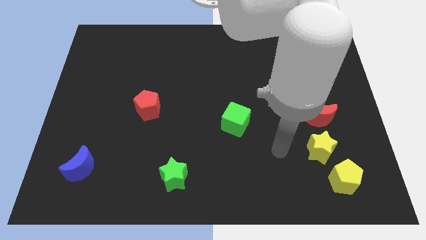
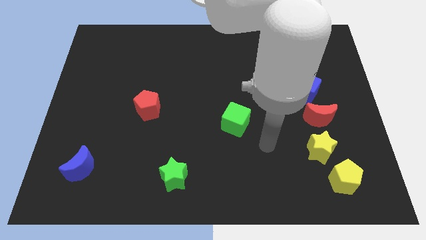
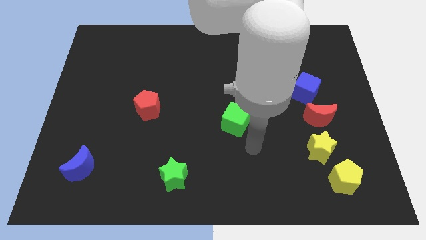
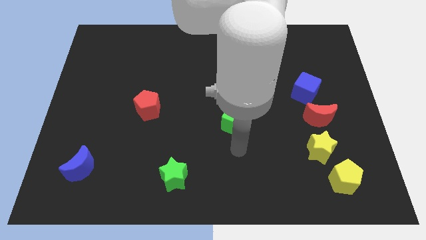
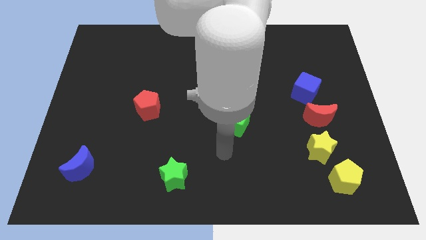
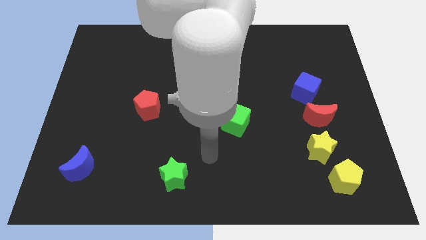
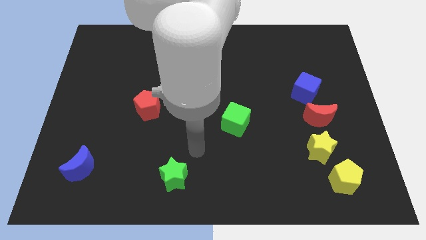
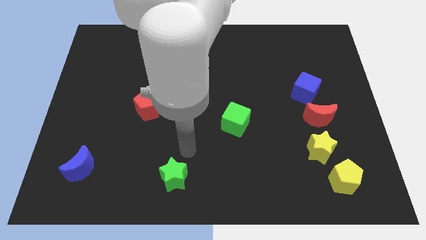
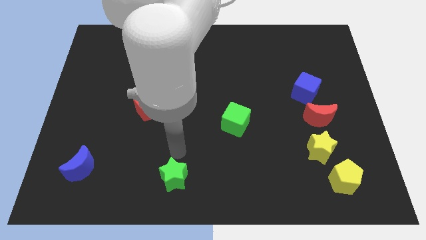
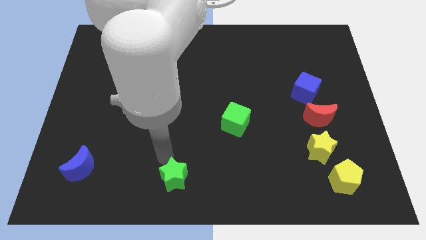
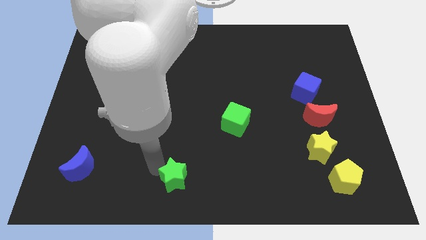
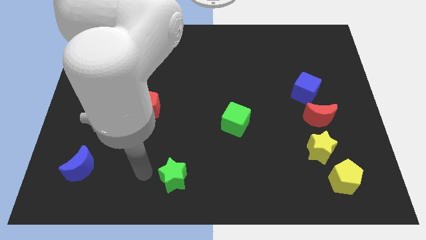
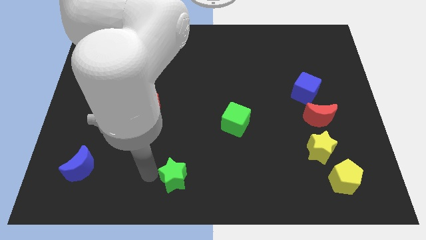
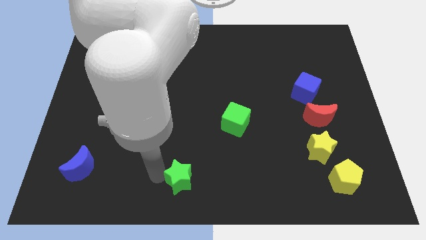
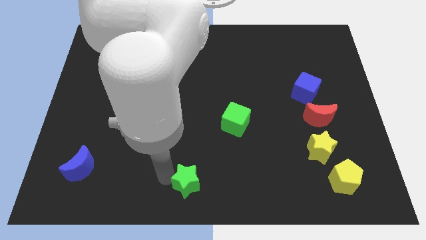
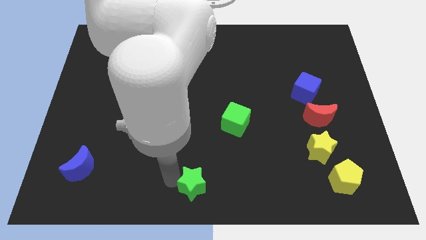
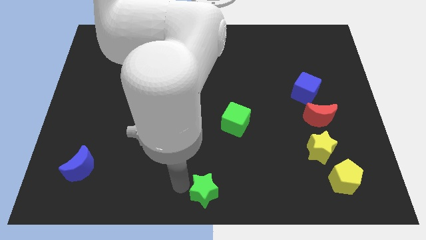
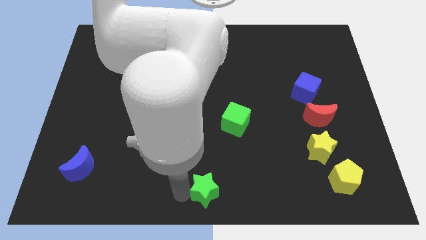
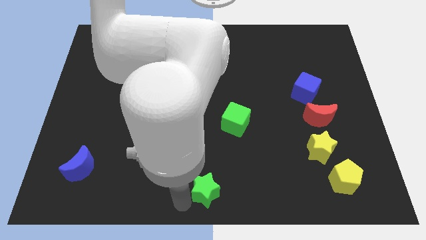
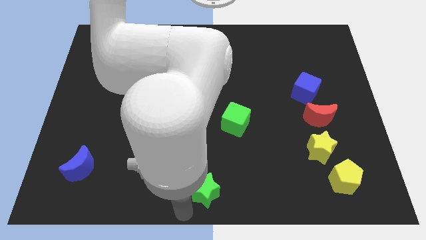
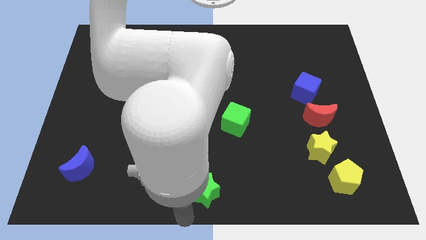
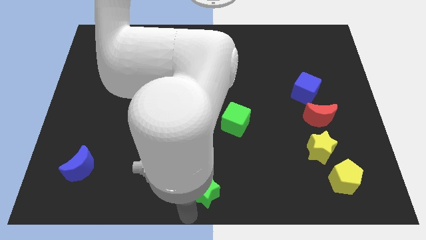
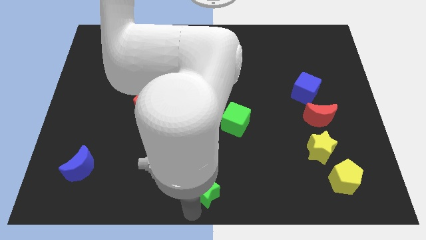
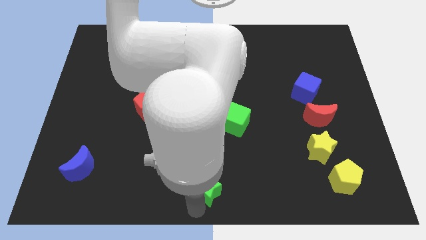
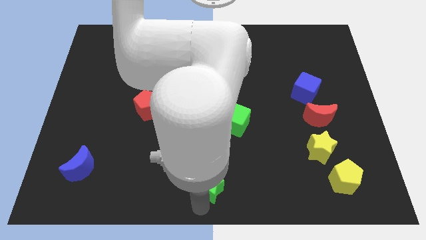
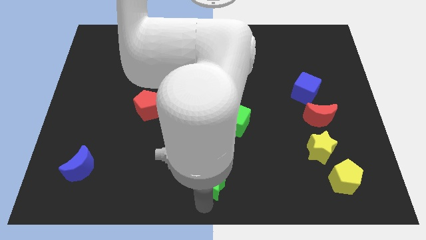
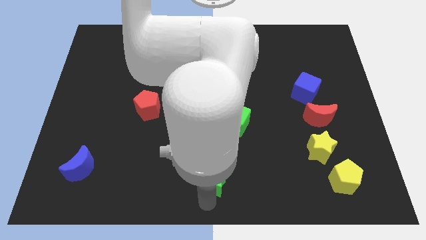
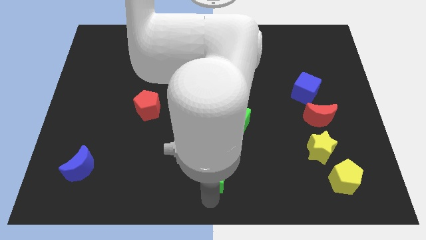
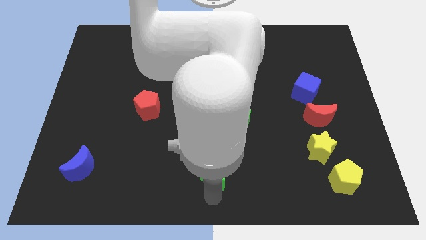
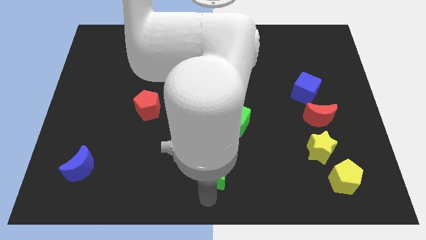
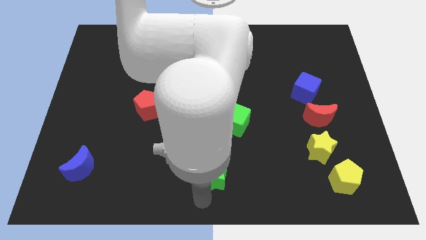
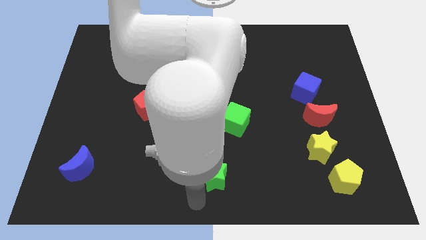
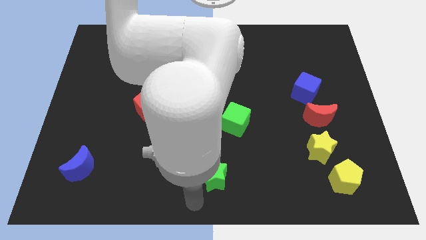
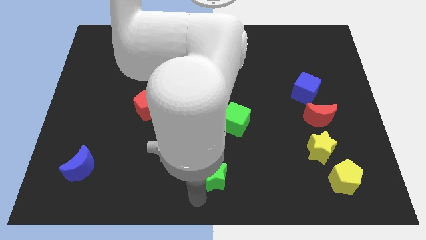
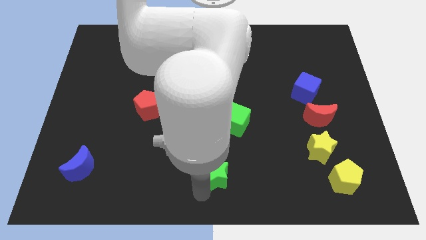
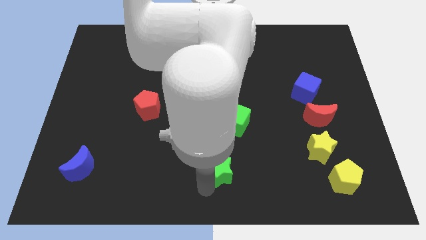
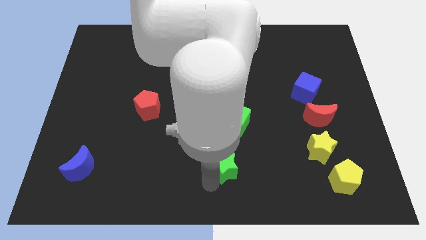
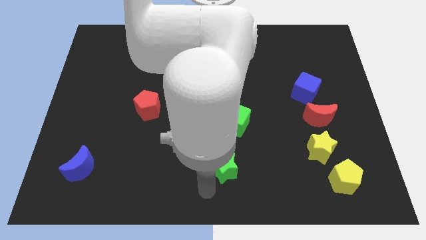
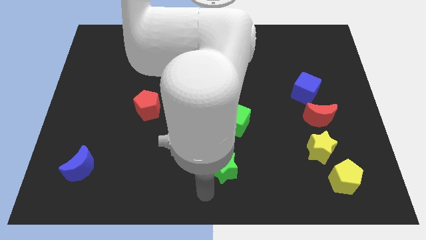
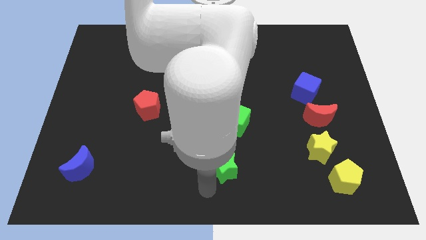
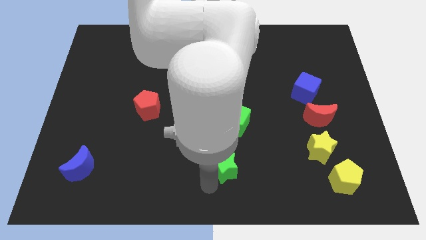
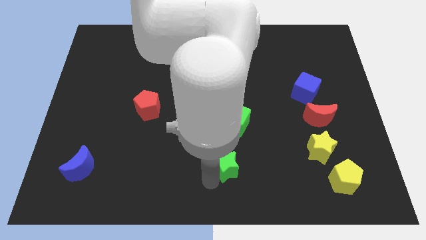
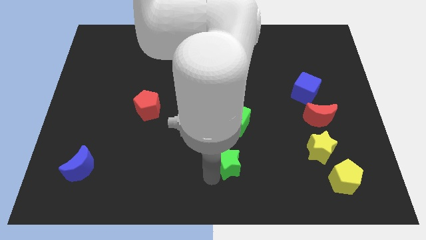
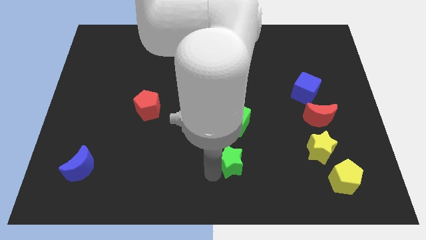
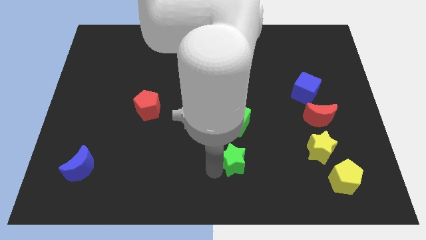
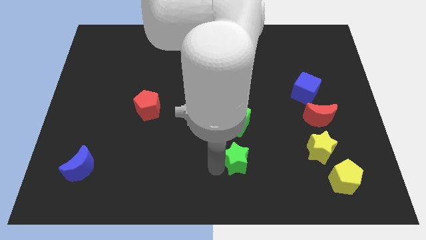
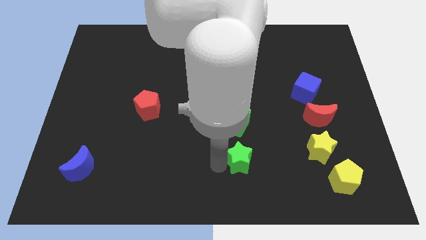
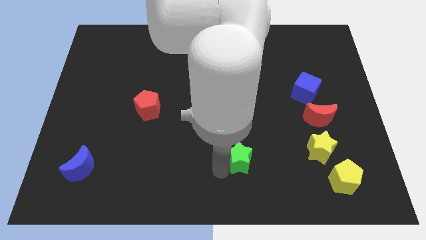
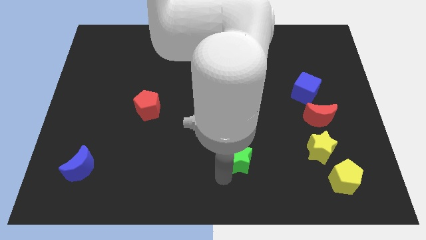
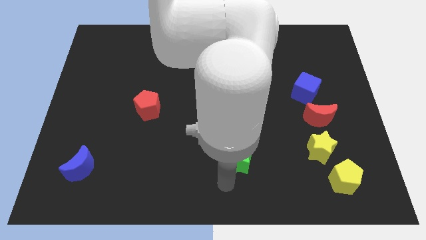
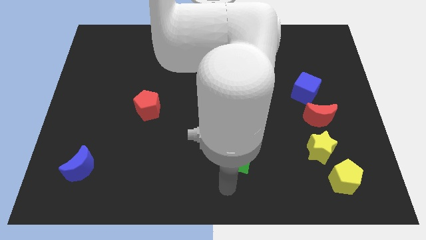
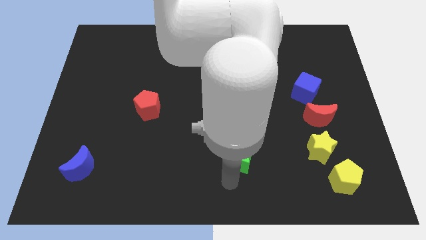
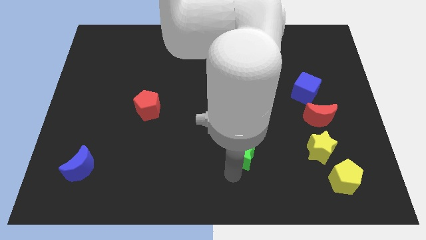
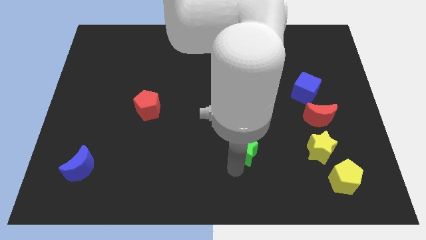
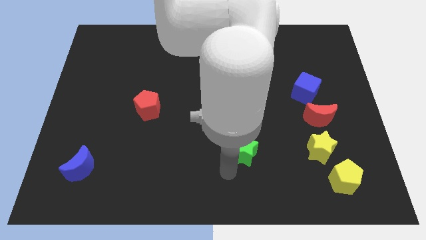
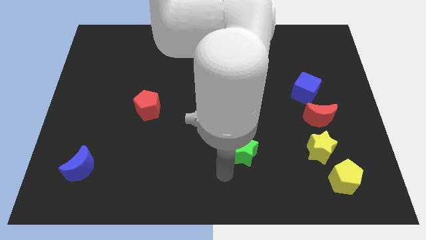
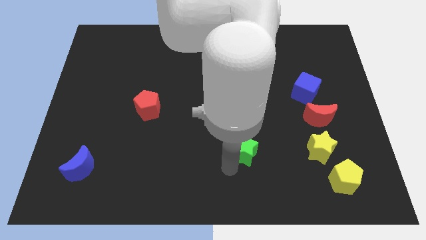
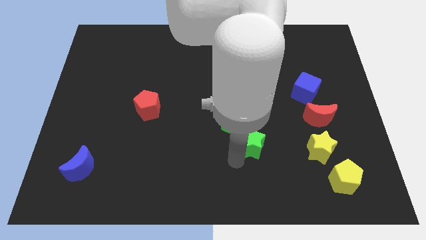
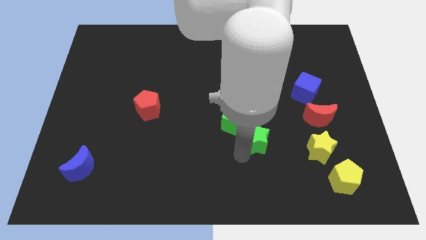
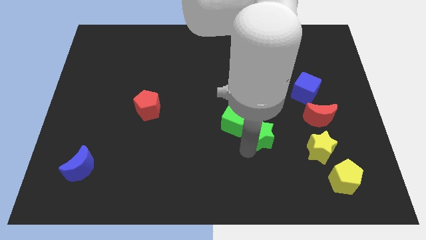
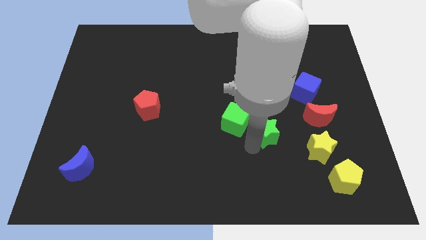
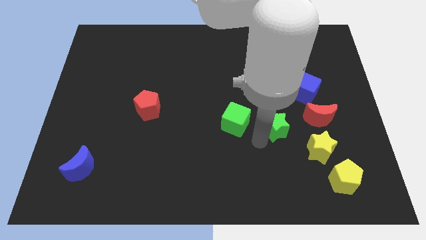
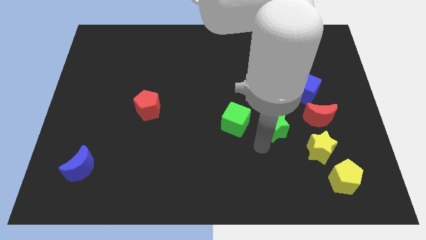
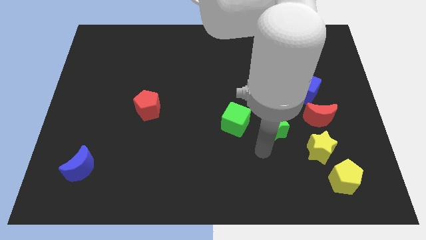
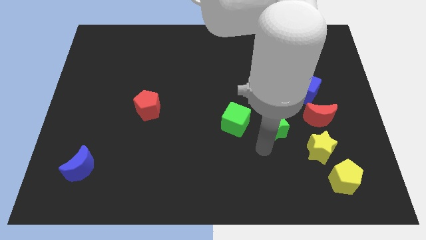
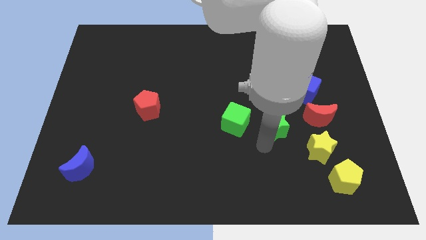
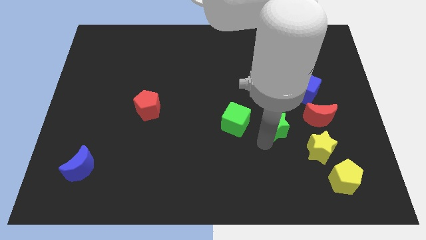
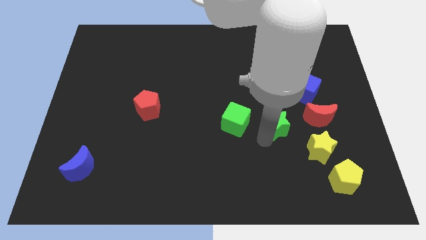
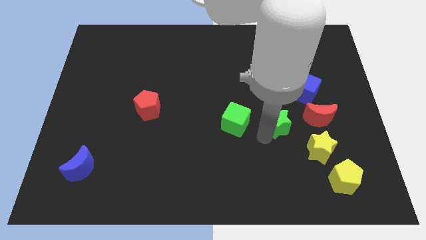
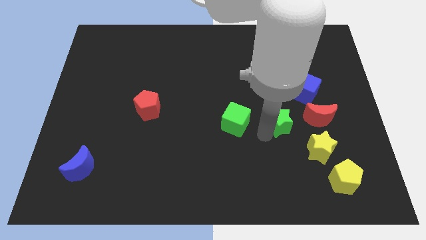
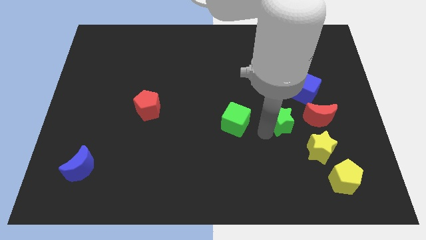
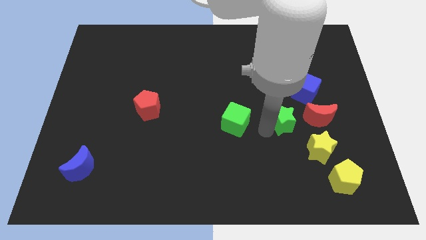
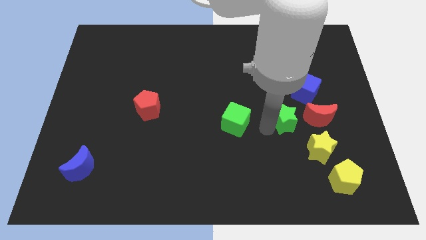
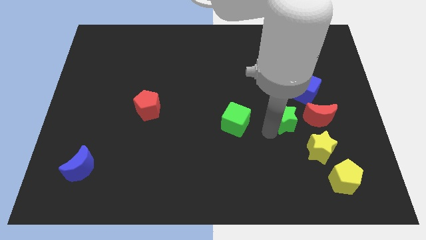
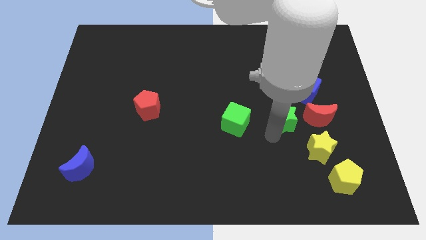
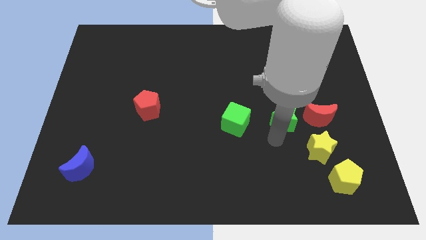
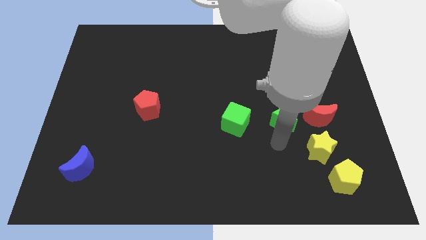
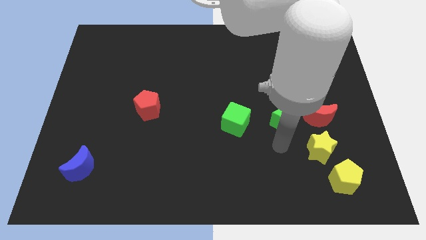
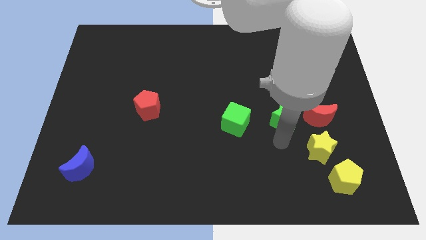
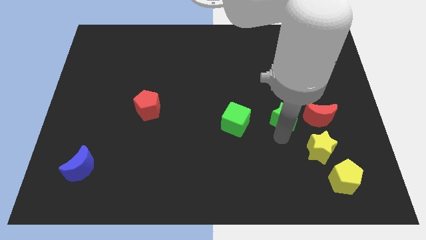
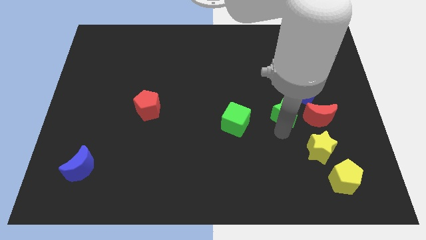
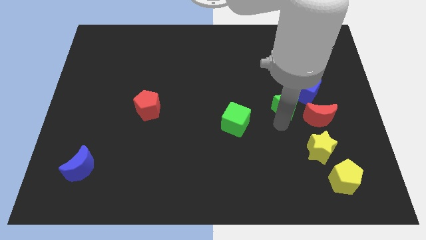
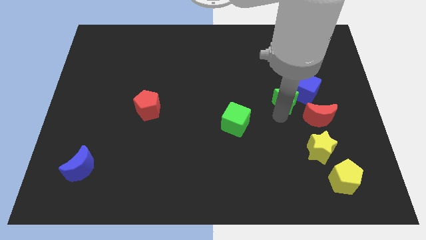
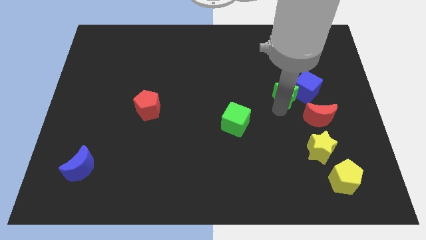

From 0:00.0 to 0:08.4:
put the green star close to the blue cube
